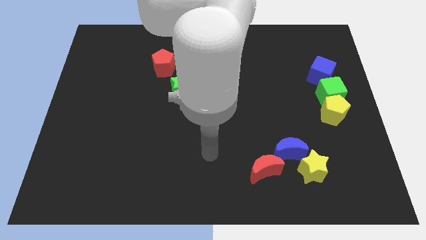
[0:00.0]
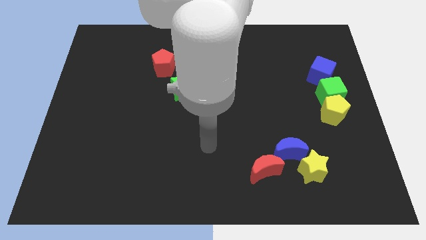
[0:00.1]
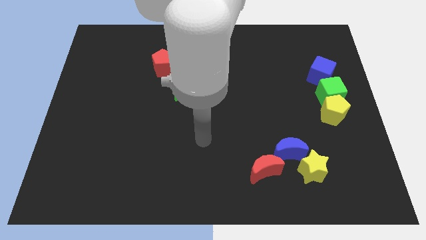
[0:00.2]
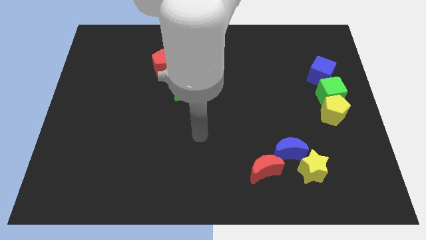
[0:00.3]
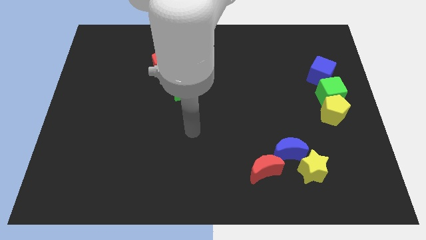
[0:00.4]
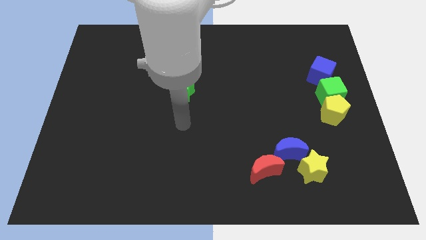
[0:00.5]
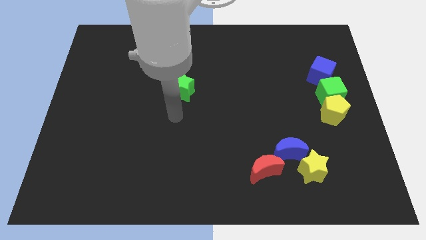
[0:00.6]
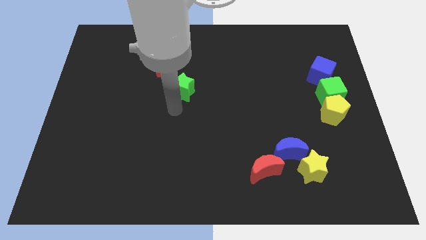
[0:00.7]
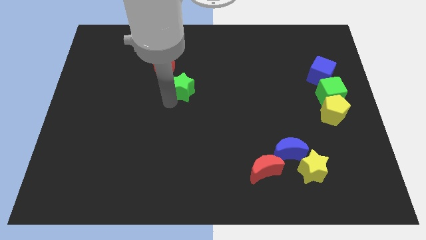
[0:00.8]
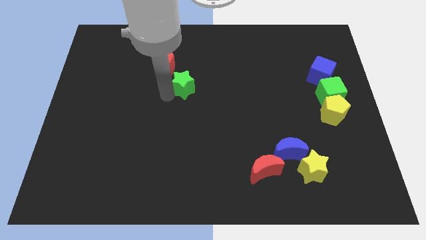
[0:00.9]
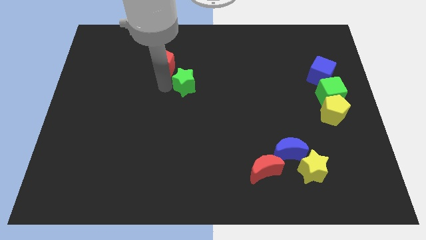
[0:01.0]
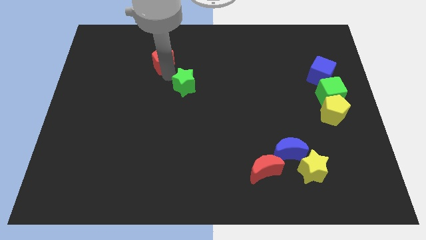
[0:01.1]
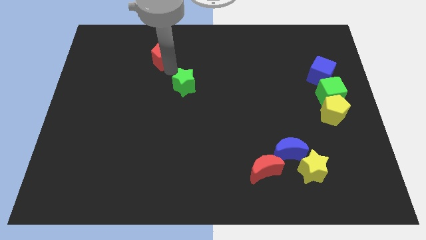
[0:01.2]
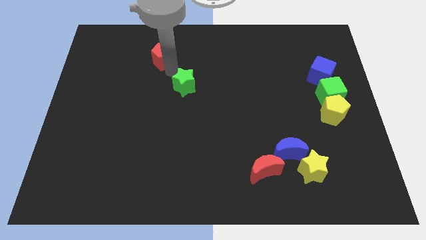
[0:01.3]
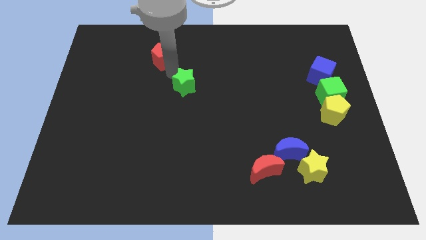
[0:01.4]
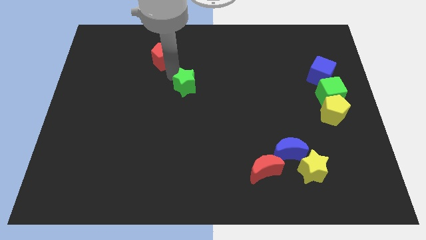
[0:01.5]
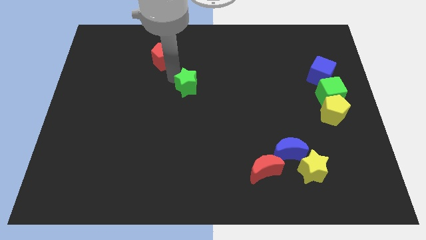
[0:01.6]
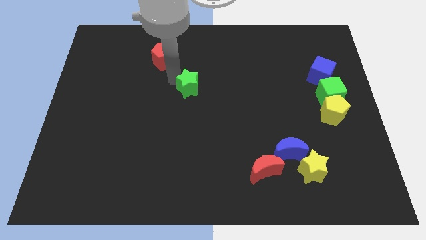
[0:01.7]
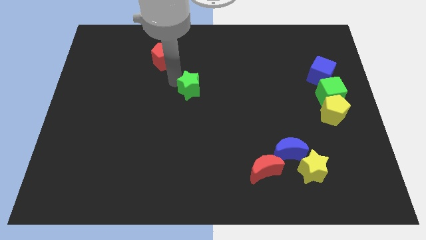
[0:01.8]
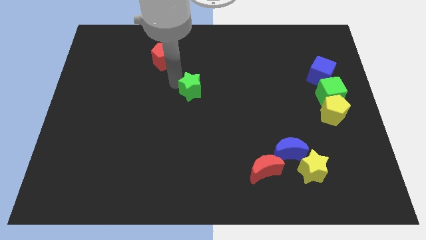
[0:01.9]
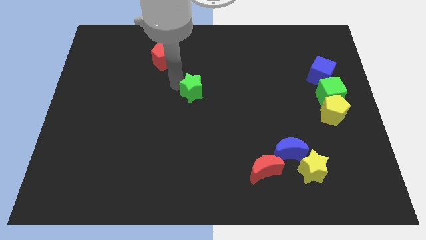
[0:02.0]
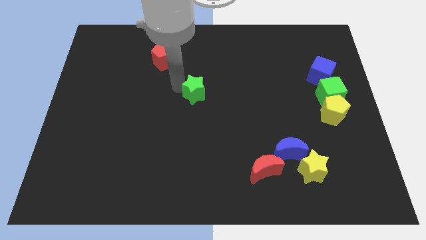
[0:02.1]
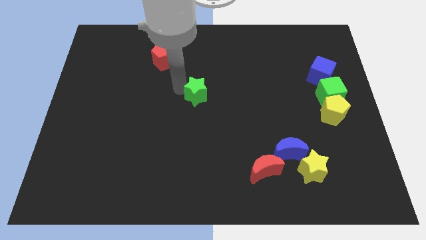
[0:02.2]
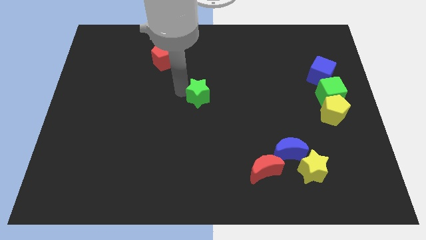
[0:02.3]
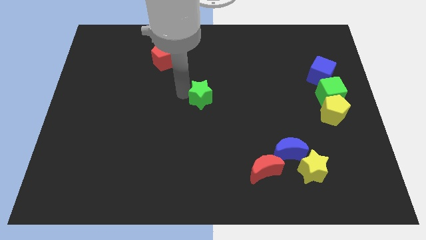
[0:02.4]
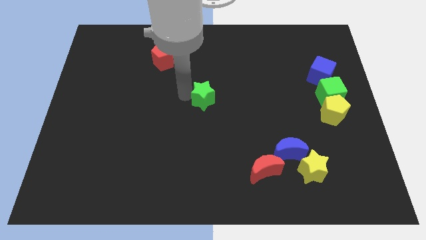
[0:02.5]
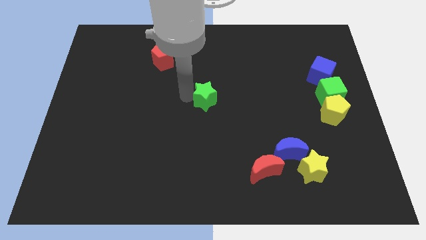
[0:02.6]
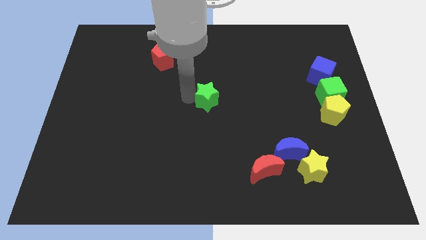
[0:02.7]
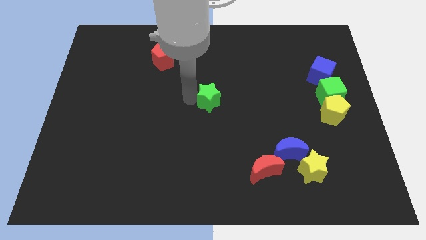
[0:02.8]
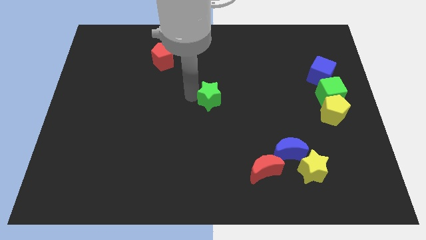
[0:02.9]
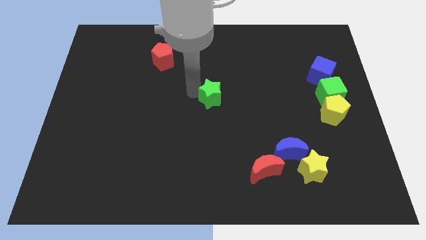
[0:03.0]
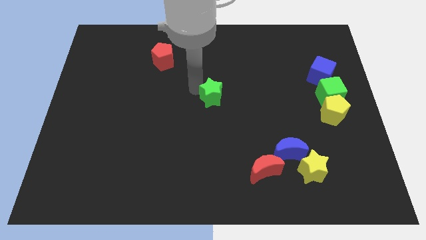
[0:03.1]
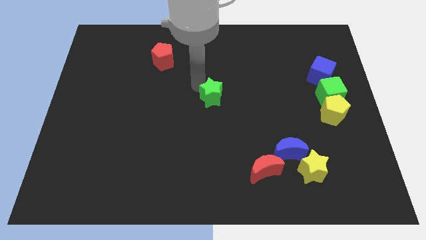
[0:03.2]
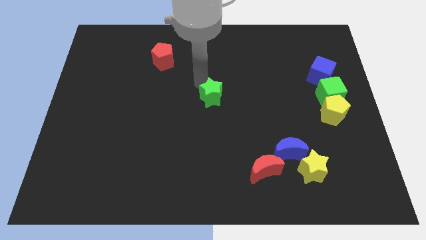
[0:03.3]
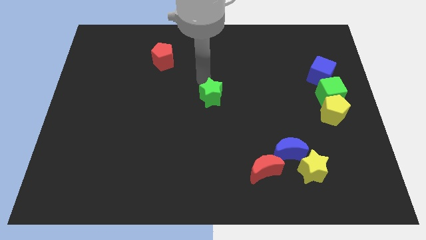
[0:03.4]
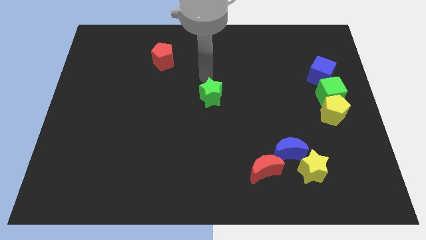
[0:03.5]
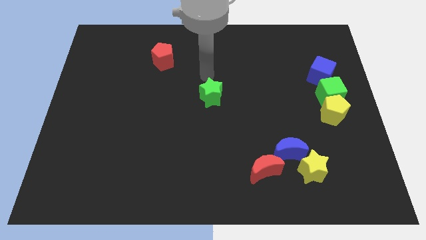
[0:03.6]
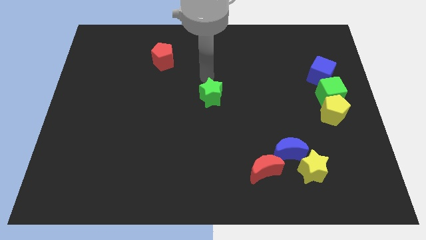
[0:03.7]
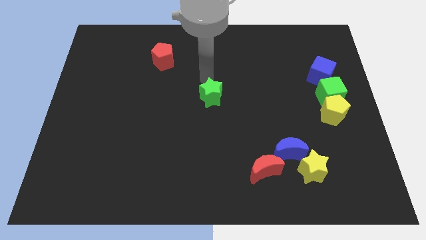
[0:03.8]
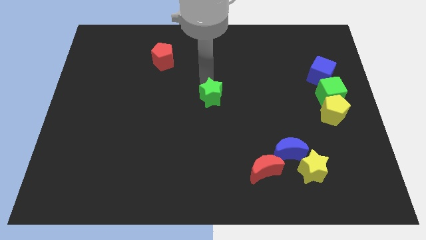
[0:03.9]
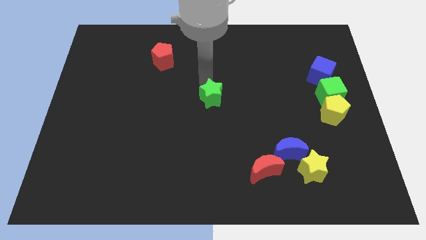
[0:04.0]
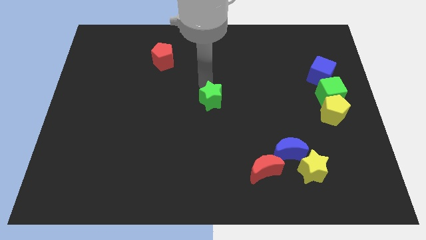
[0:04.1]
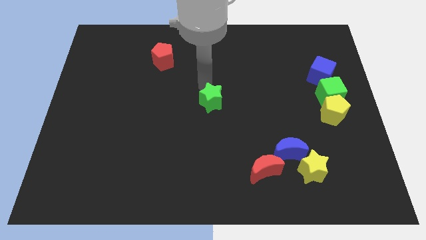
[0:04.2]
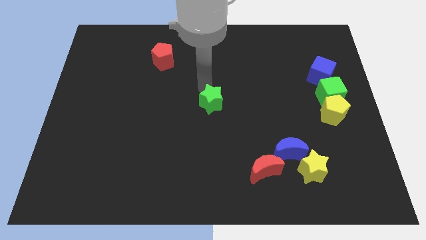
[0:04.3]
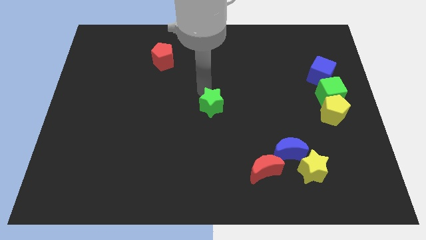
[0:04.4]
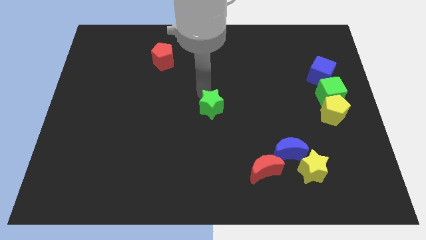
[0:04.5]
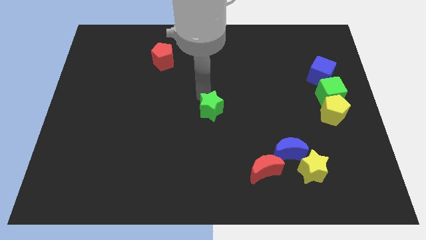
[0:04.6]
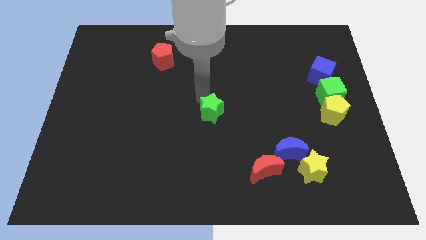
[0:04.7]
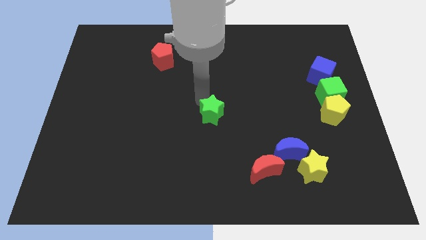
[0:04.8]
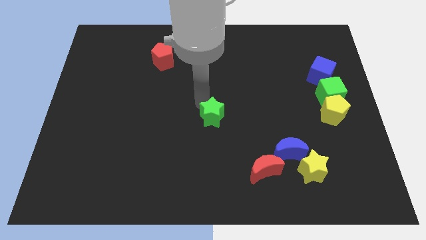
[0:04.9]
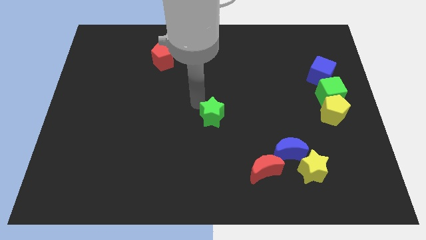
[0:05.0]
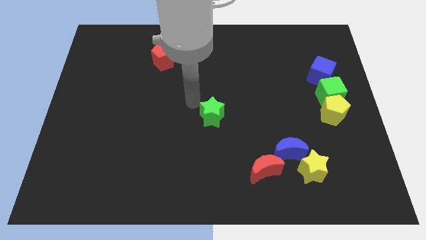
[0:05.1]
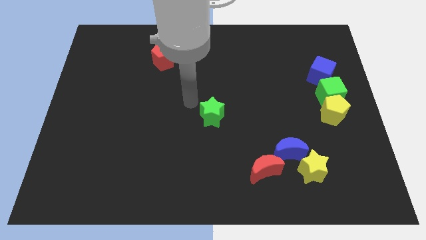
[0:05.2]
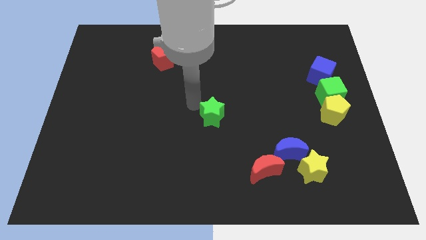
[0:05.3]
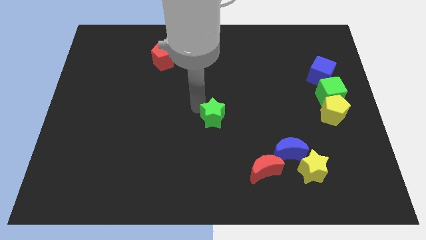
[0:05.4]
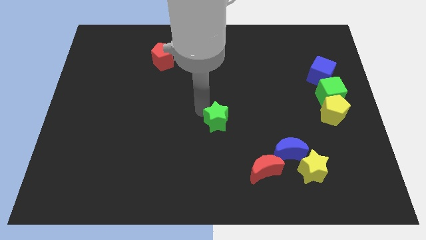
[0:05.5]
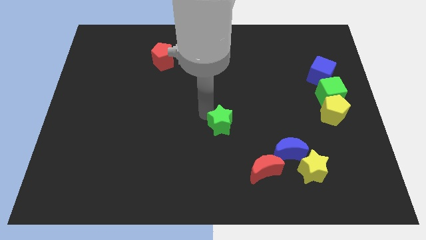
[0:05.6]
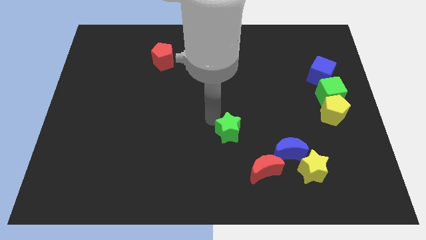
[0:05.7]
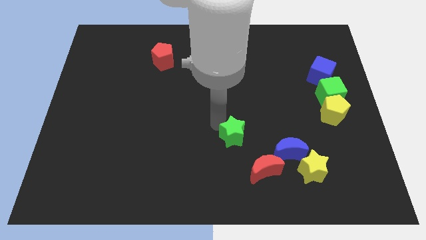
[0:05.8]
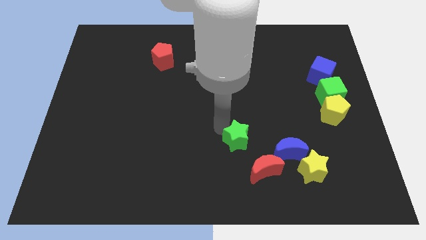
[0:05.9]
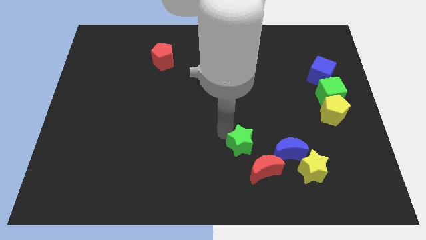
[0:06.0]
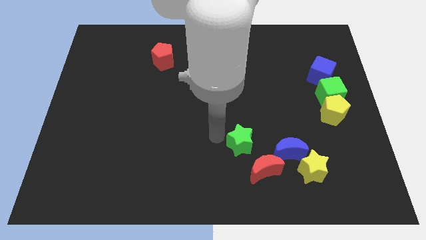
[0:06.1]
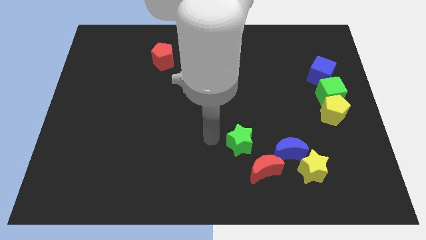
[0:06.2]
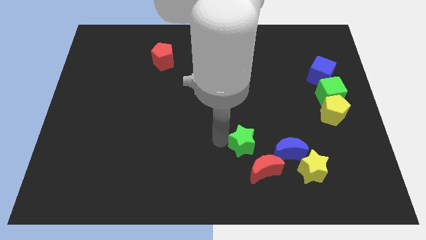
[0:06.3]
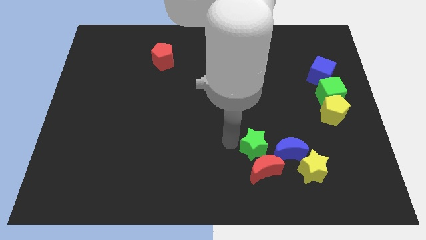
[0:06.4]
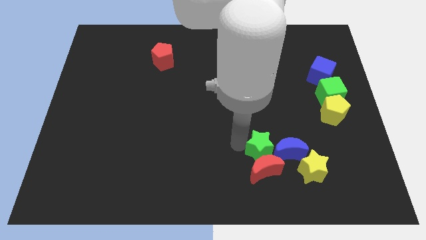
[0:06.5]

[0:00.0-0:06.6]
put the green star to the blue moon

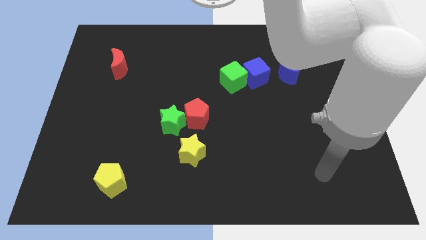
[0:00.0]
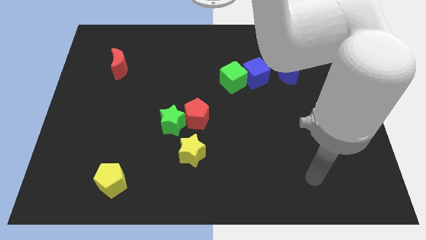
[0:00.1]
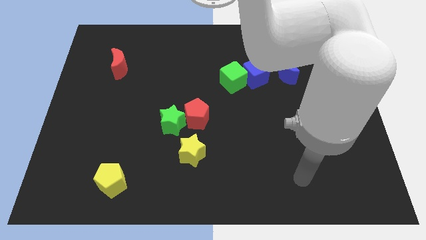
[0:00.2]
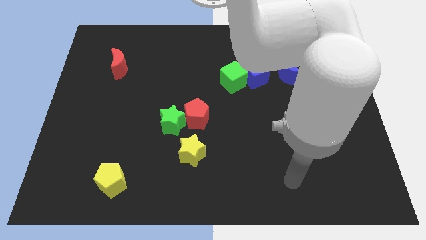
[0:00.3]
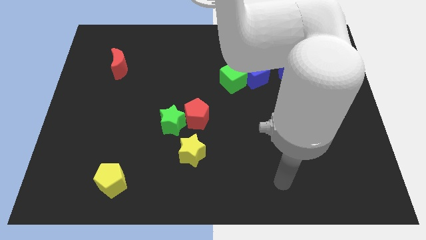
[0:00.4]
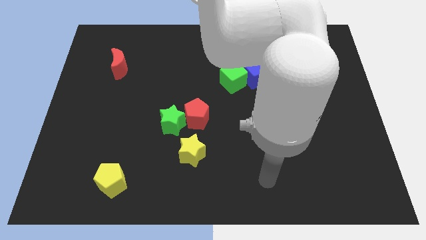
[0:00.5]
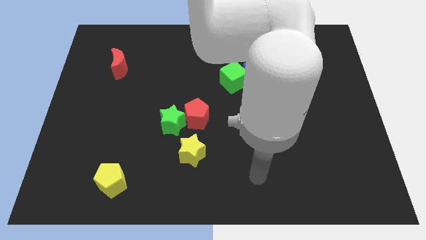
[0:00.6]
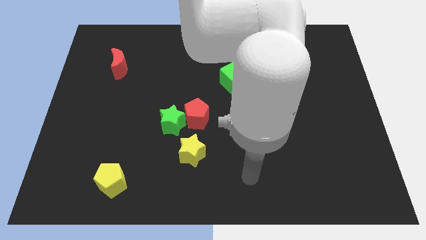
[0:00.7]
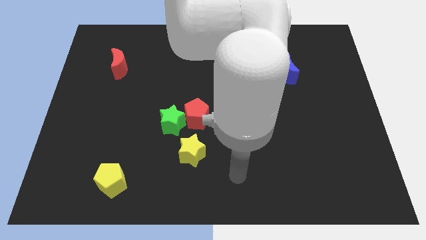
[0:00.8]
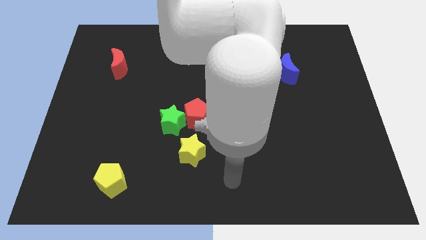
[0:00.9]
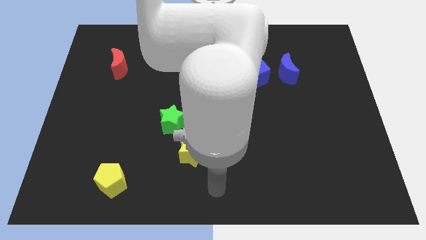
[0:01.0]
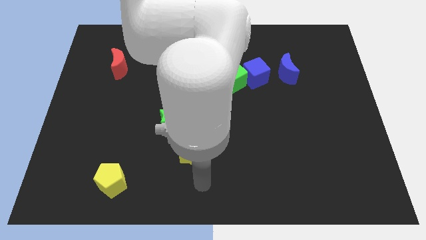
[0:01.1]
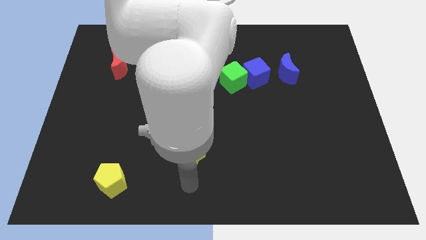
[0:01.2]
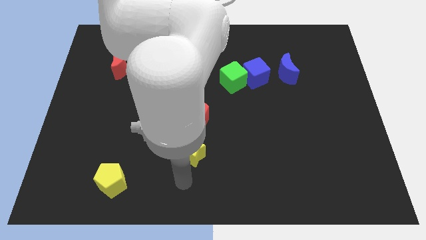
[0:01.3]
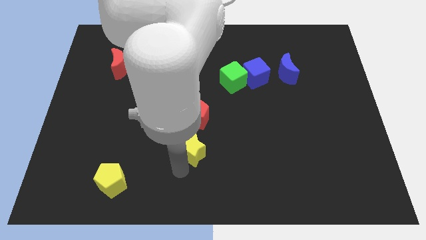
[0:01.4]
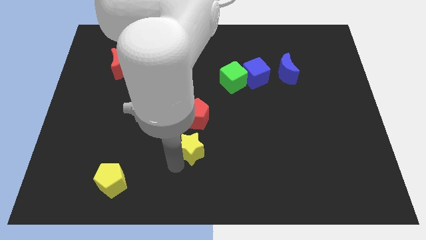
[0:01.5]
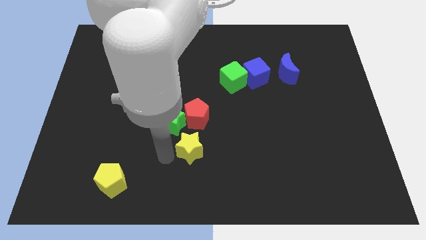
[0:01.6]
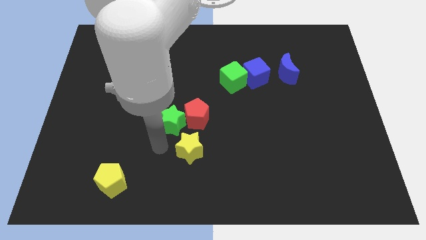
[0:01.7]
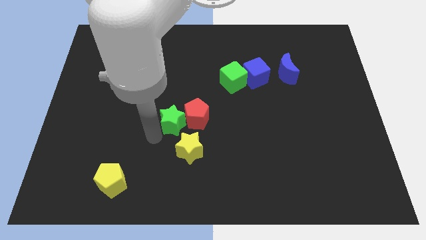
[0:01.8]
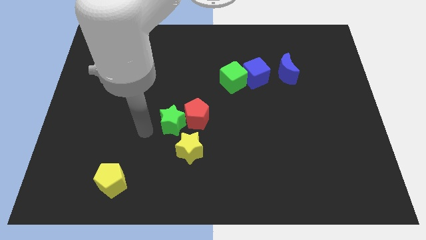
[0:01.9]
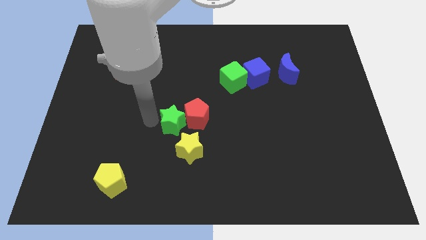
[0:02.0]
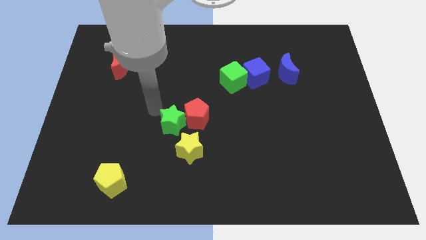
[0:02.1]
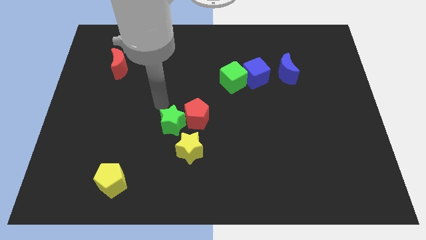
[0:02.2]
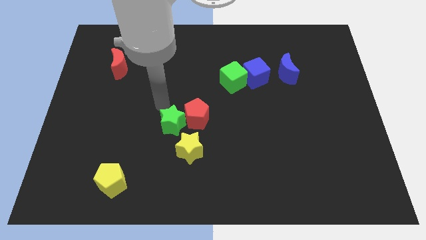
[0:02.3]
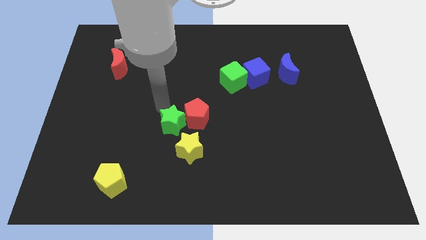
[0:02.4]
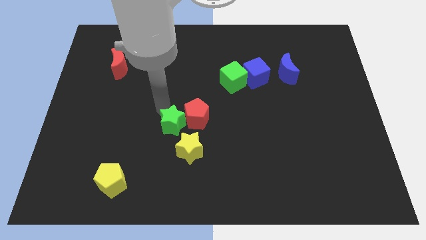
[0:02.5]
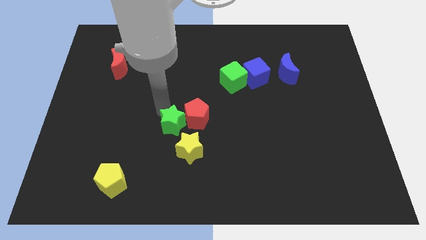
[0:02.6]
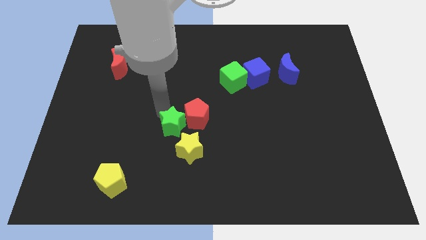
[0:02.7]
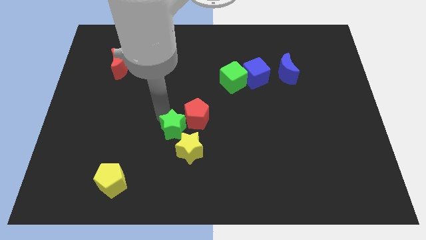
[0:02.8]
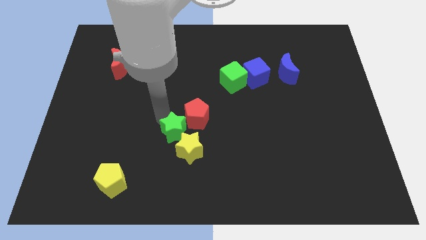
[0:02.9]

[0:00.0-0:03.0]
move the green star to the yellow star
